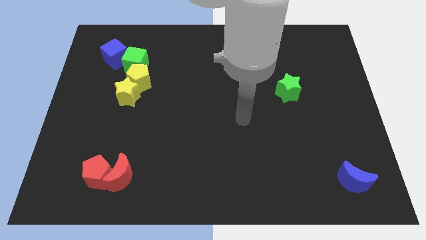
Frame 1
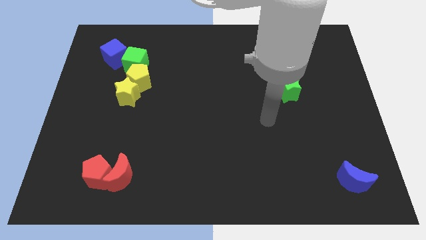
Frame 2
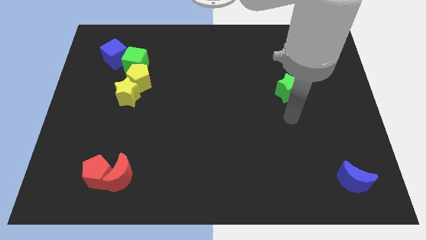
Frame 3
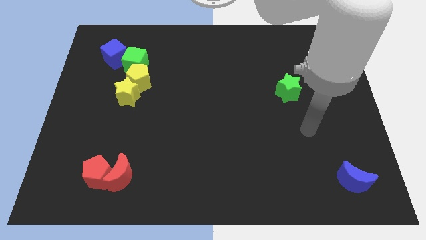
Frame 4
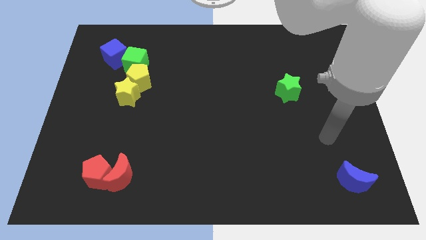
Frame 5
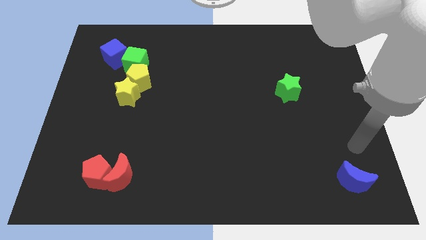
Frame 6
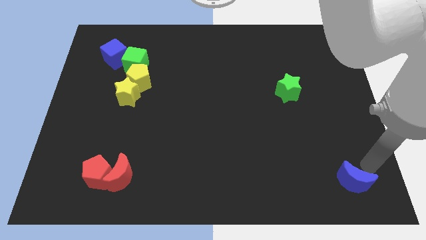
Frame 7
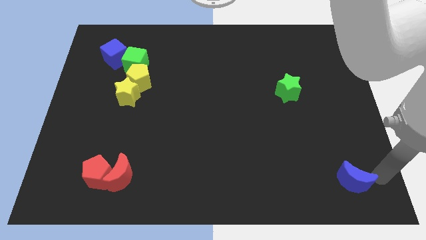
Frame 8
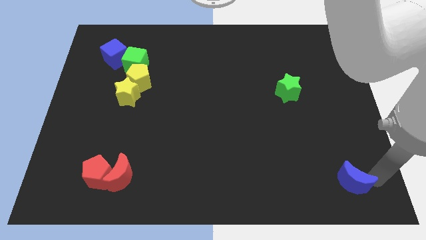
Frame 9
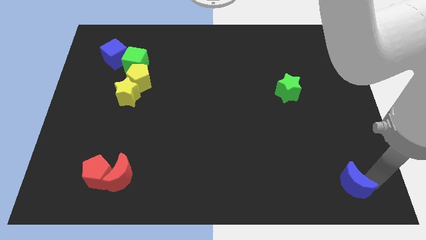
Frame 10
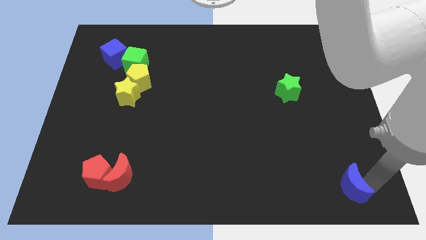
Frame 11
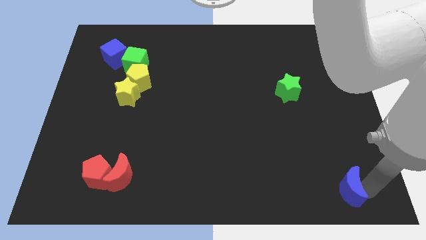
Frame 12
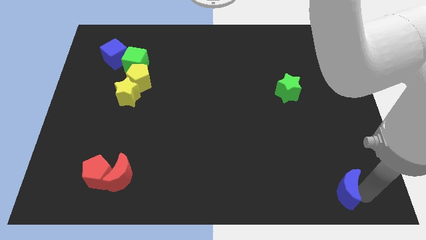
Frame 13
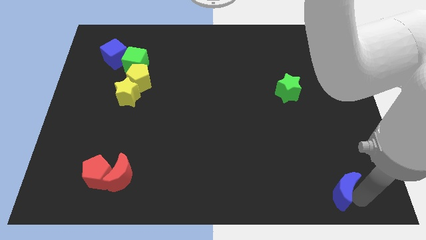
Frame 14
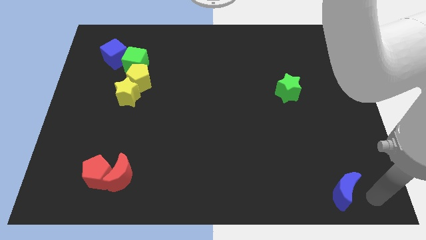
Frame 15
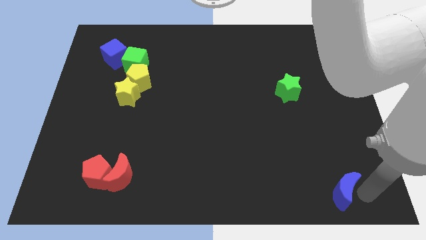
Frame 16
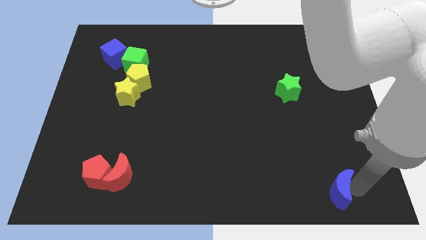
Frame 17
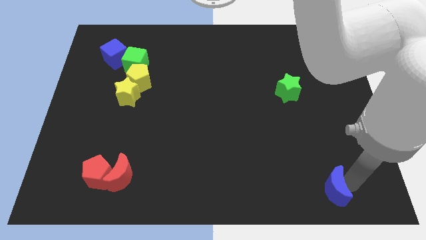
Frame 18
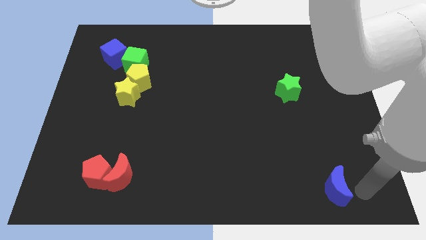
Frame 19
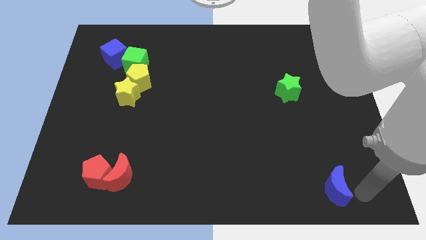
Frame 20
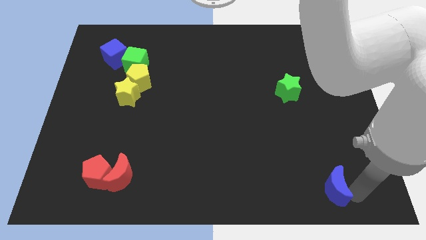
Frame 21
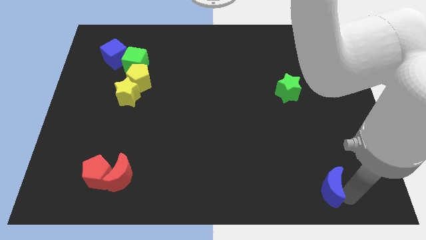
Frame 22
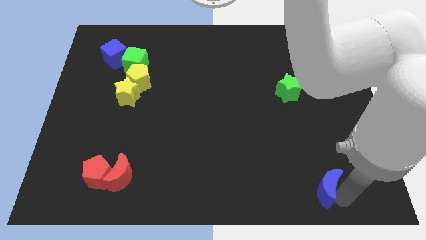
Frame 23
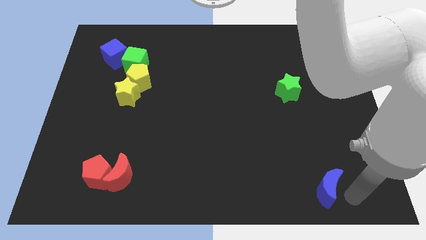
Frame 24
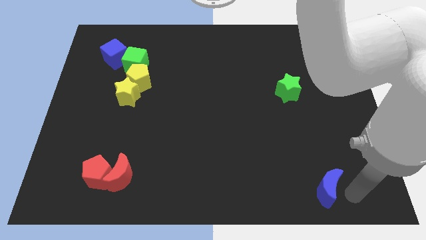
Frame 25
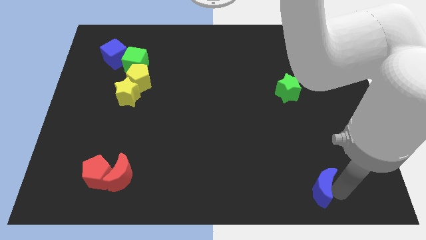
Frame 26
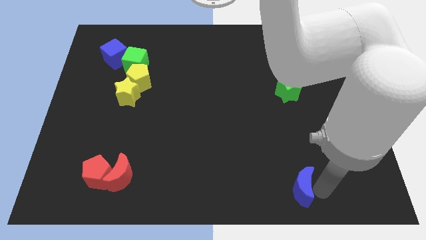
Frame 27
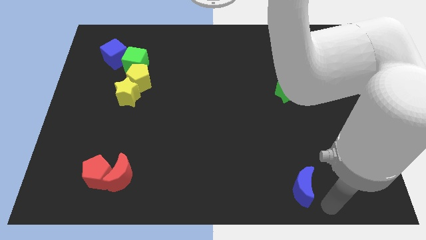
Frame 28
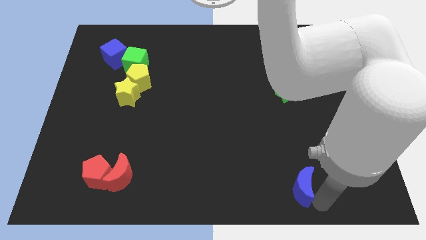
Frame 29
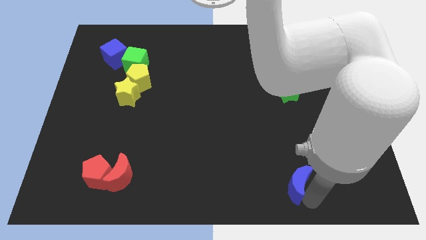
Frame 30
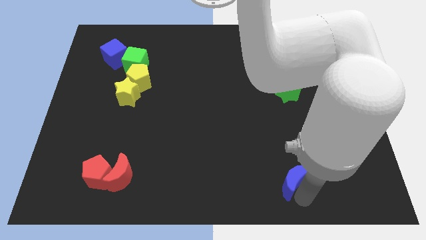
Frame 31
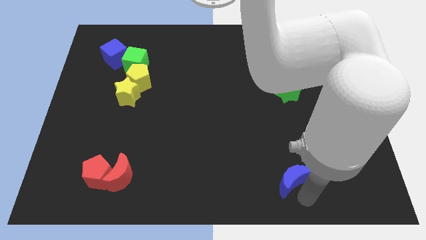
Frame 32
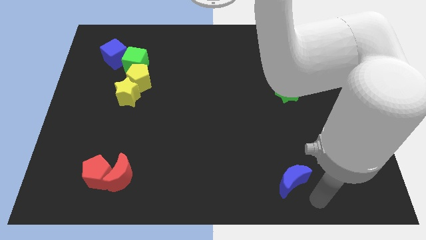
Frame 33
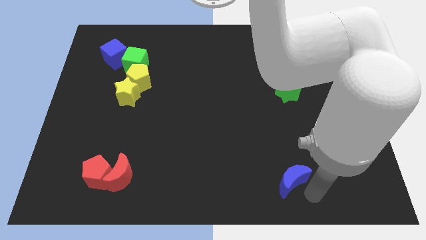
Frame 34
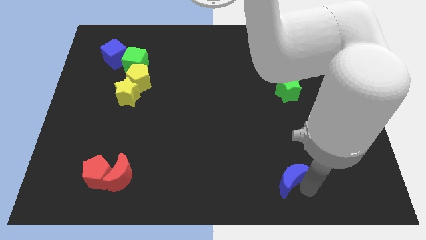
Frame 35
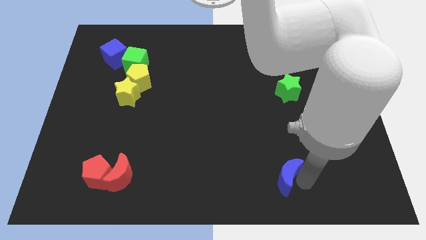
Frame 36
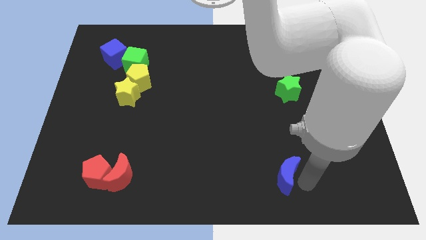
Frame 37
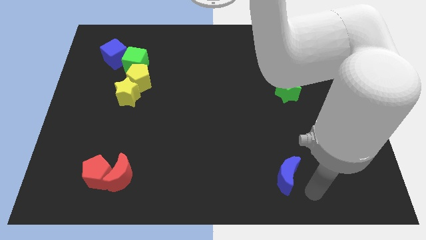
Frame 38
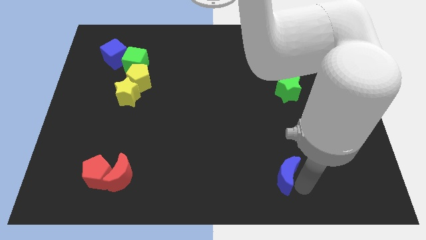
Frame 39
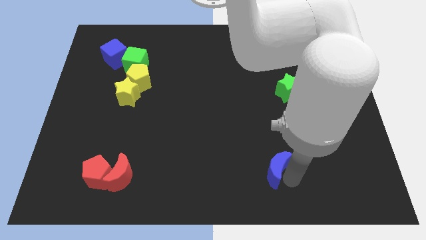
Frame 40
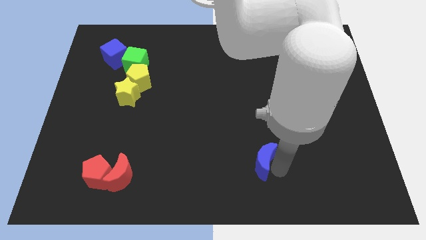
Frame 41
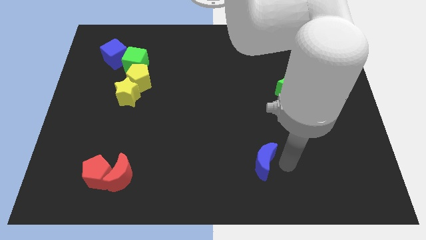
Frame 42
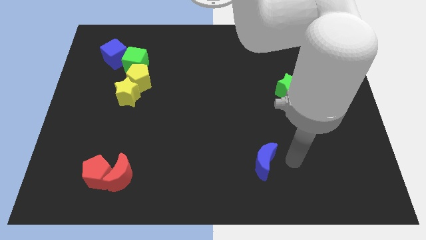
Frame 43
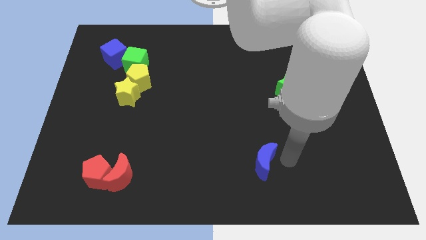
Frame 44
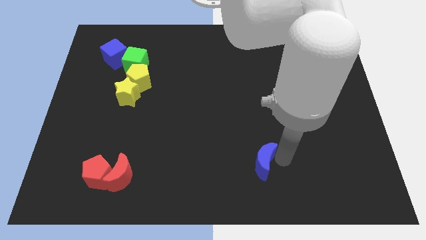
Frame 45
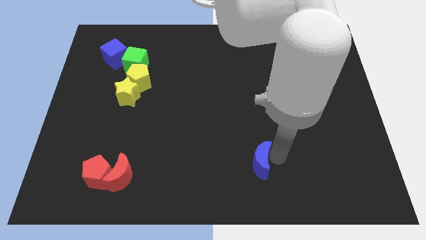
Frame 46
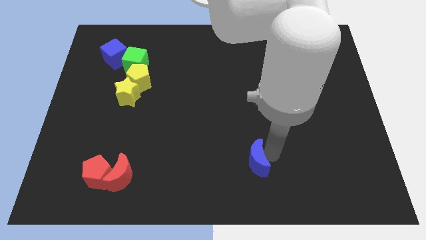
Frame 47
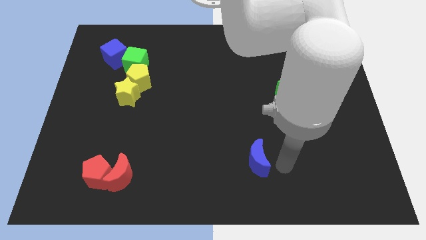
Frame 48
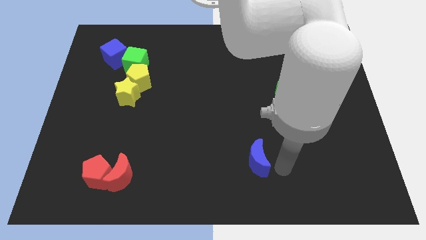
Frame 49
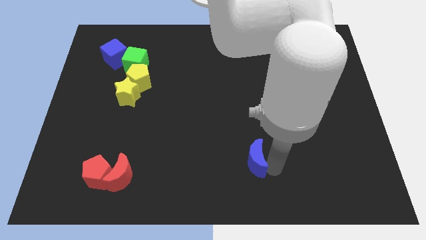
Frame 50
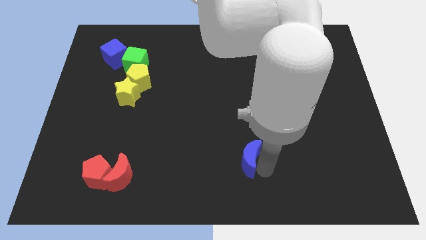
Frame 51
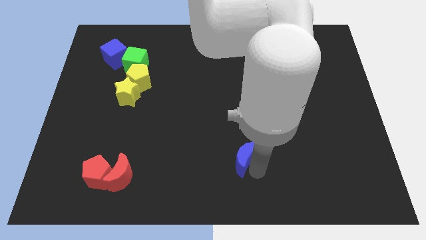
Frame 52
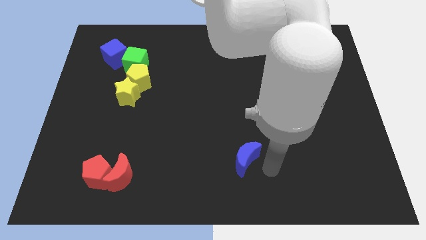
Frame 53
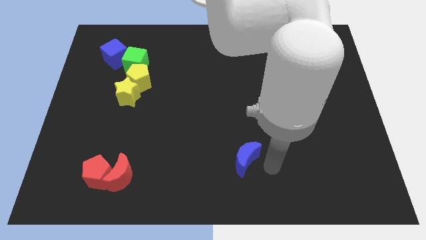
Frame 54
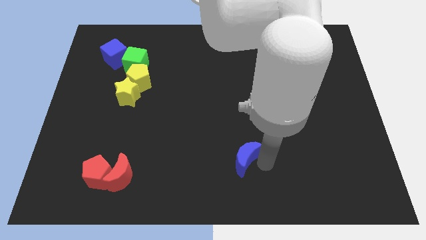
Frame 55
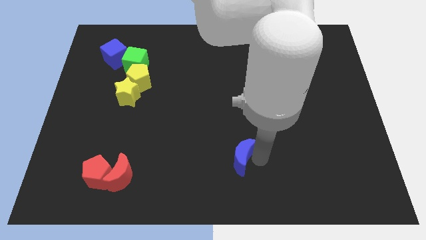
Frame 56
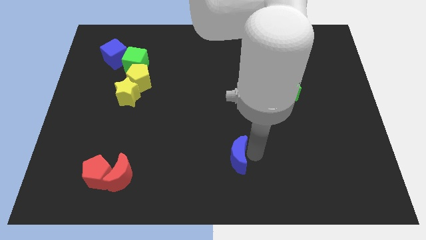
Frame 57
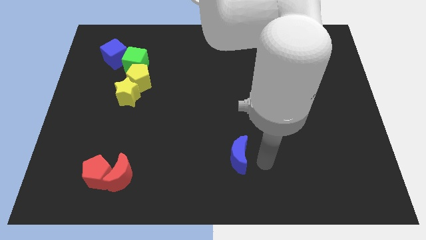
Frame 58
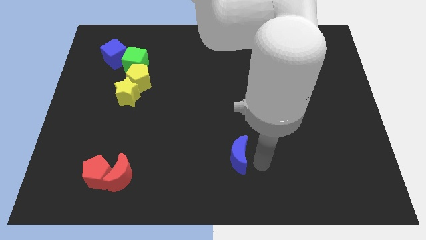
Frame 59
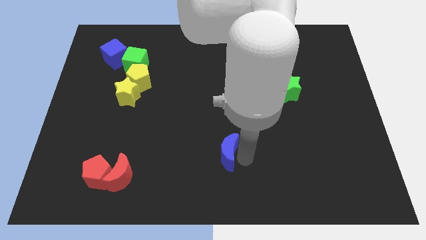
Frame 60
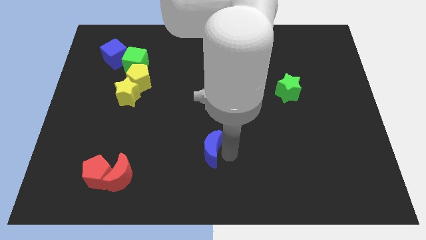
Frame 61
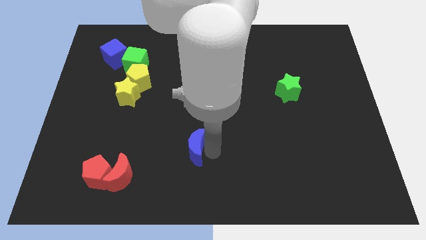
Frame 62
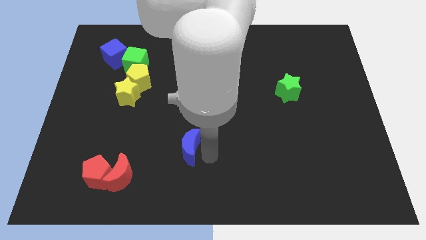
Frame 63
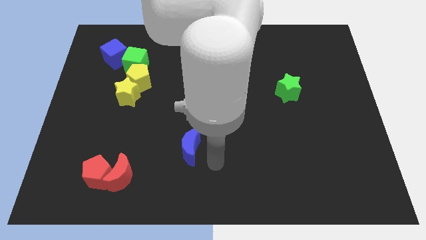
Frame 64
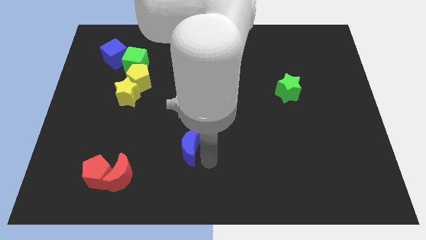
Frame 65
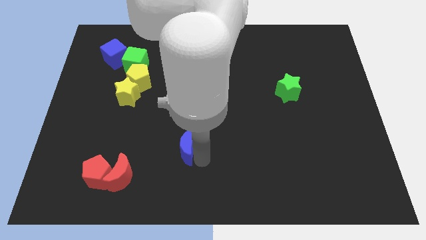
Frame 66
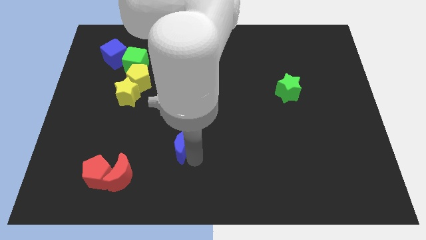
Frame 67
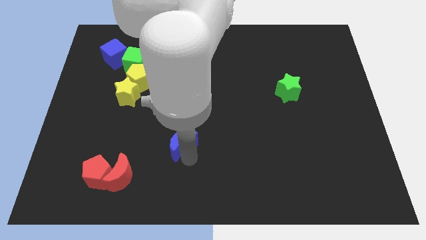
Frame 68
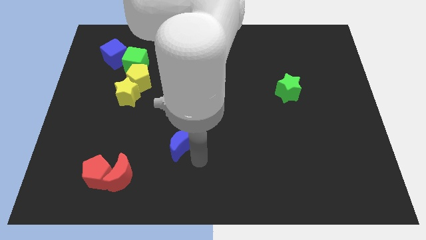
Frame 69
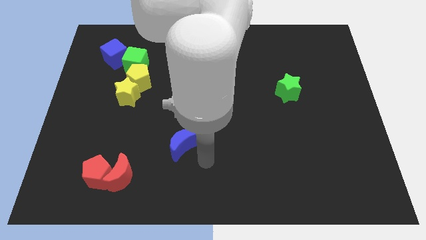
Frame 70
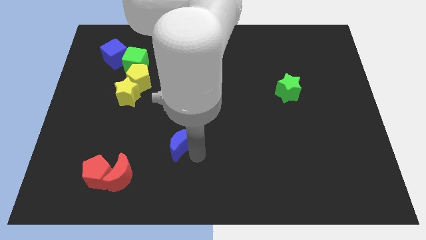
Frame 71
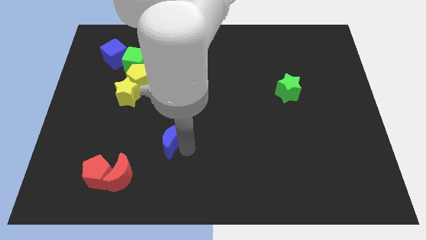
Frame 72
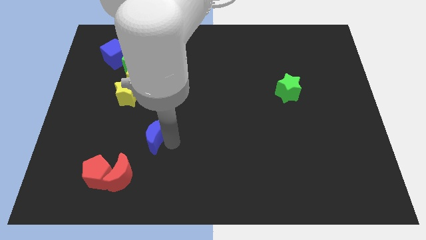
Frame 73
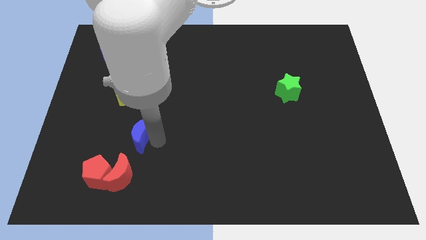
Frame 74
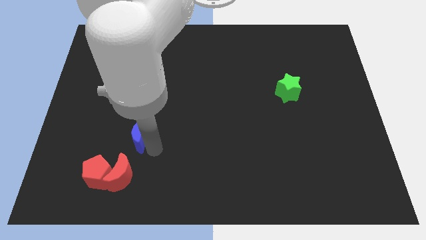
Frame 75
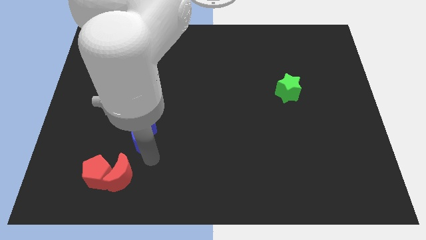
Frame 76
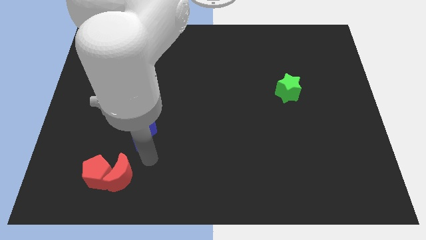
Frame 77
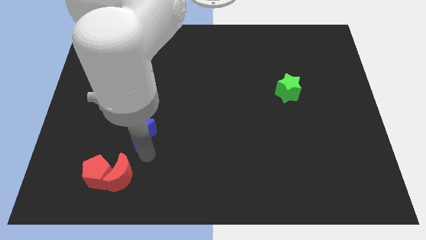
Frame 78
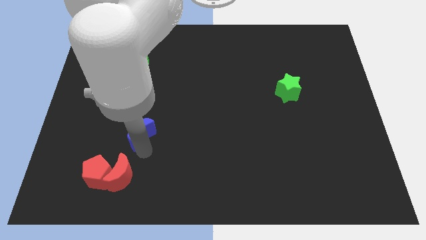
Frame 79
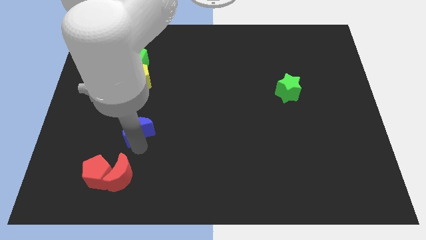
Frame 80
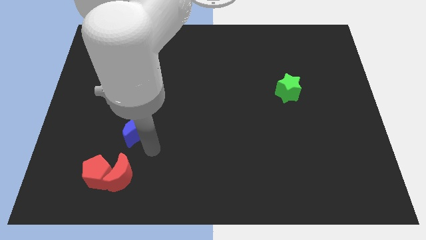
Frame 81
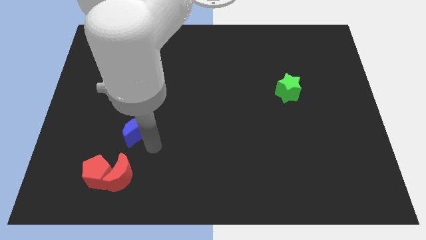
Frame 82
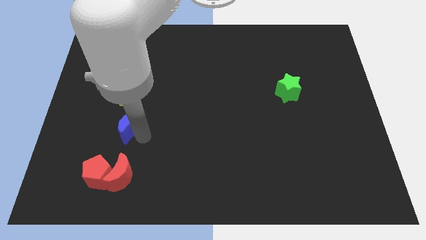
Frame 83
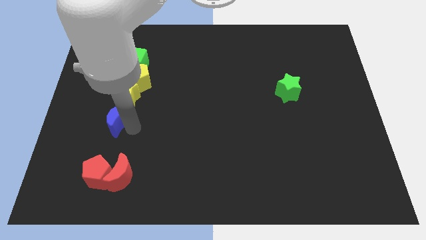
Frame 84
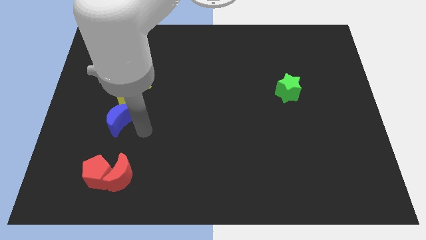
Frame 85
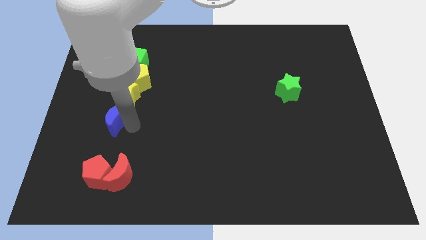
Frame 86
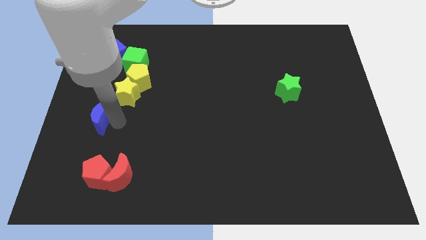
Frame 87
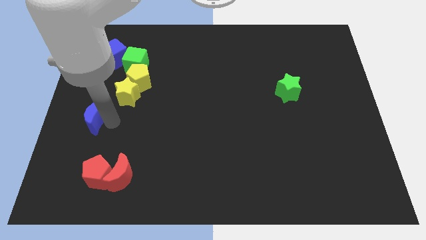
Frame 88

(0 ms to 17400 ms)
slide the blue moon to the left side of the board
